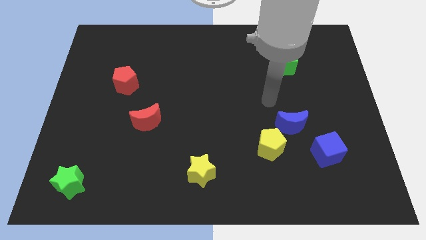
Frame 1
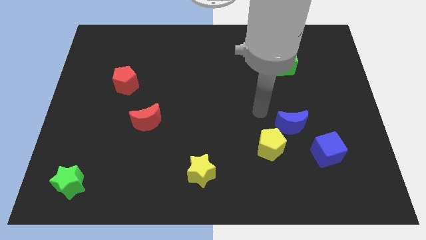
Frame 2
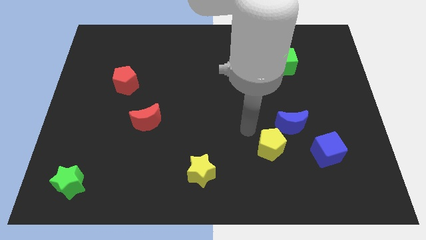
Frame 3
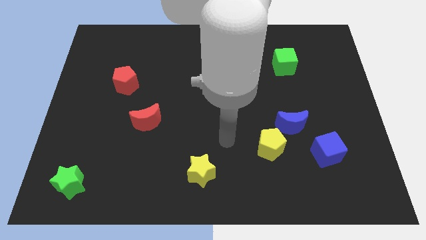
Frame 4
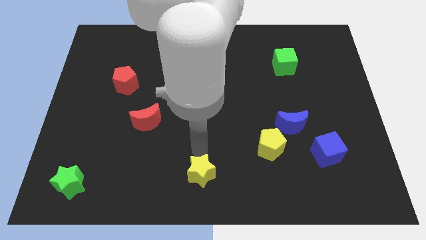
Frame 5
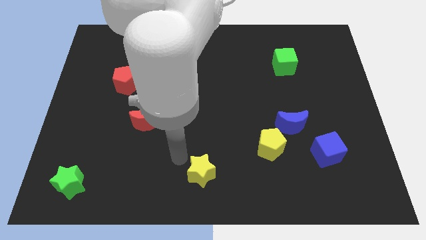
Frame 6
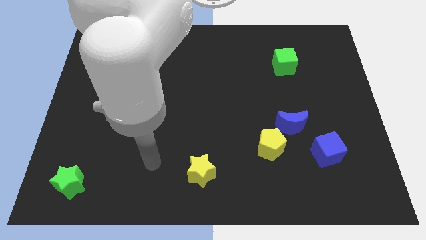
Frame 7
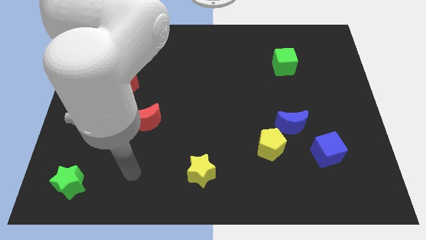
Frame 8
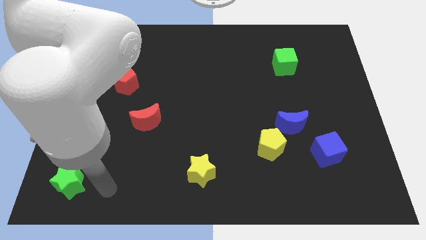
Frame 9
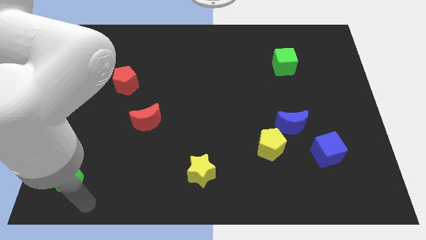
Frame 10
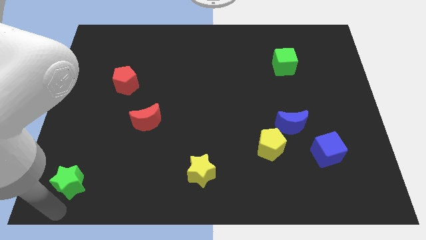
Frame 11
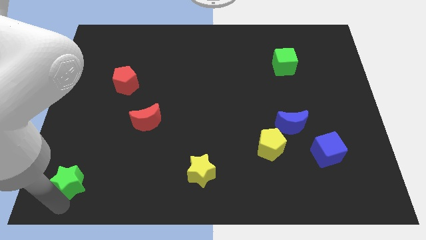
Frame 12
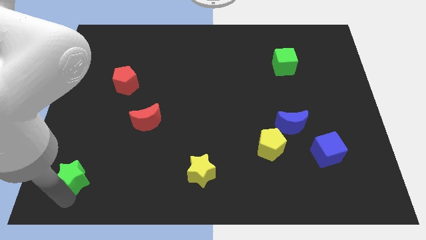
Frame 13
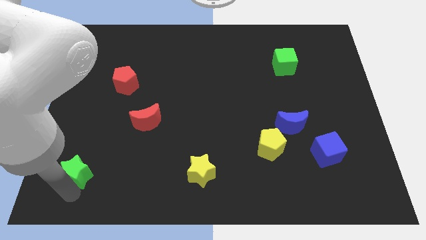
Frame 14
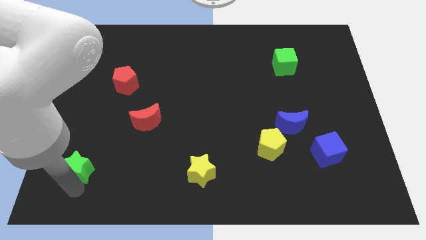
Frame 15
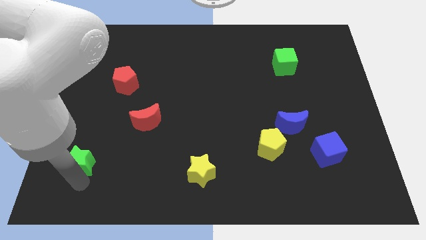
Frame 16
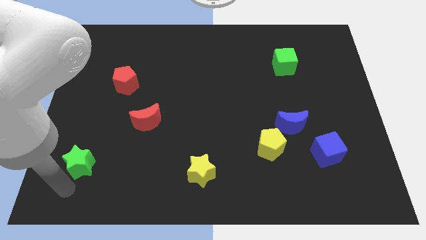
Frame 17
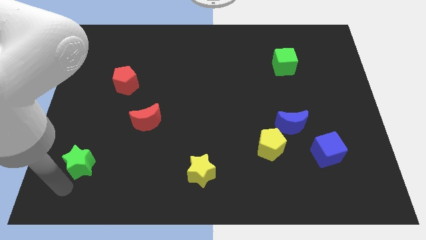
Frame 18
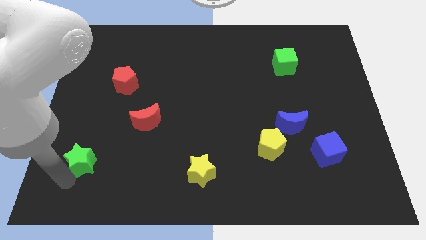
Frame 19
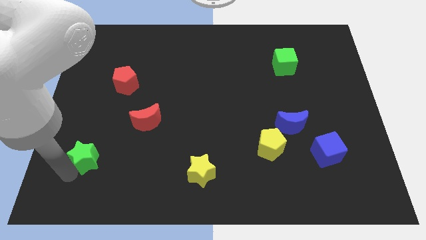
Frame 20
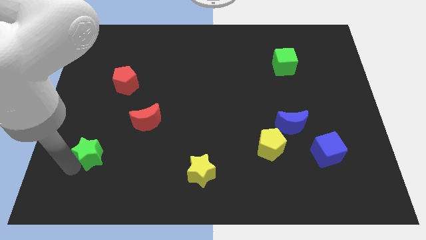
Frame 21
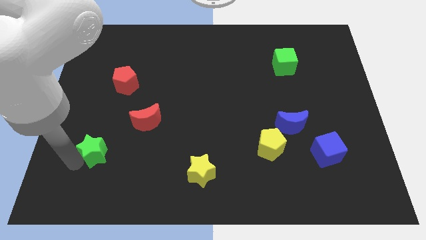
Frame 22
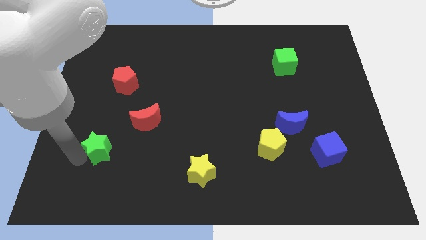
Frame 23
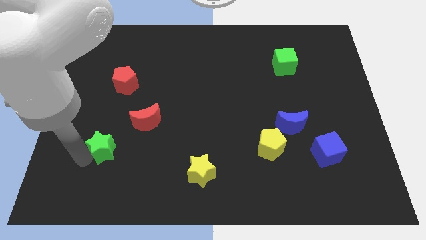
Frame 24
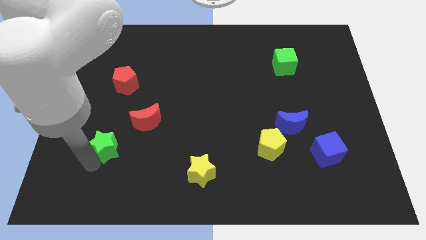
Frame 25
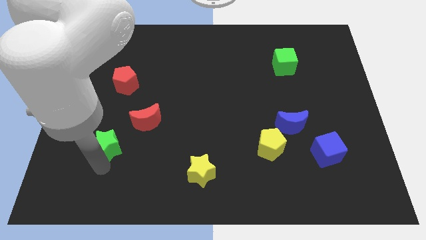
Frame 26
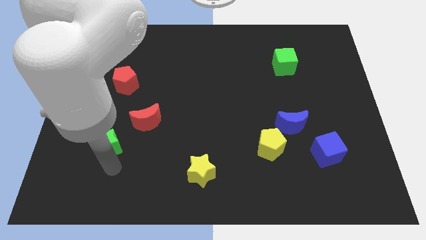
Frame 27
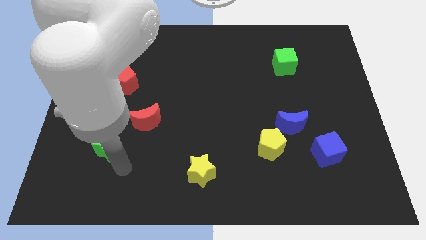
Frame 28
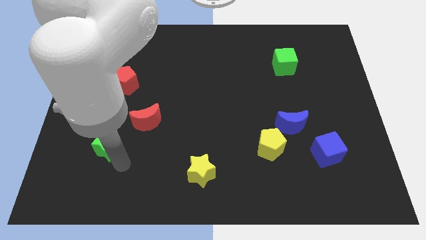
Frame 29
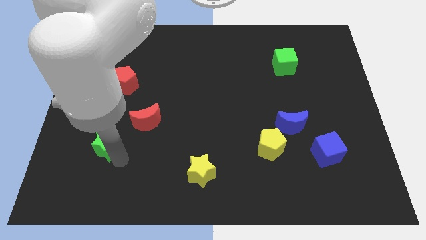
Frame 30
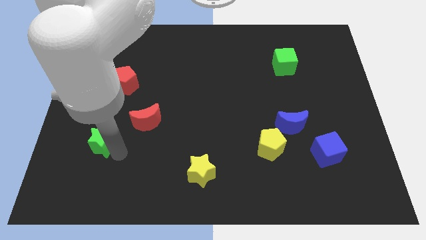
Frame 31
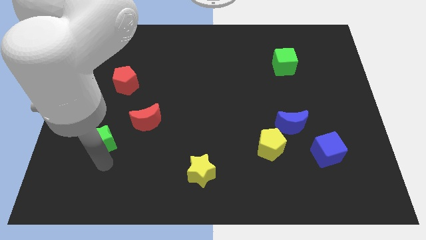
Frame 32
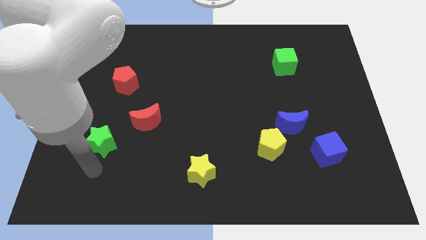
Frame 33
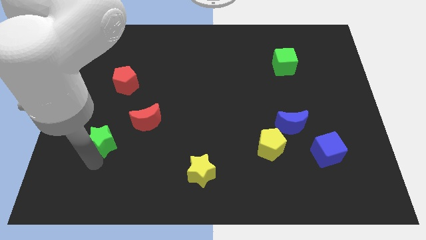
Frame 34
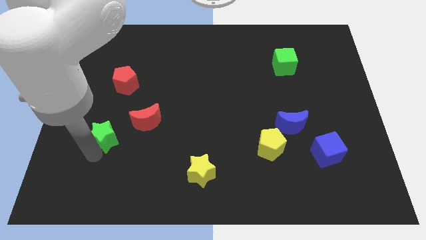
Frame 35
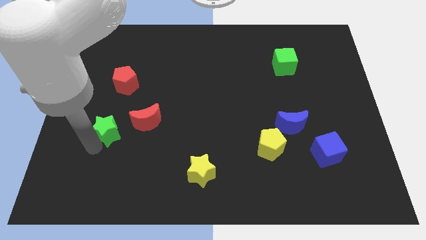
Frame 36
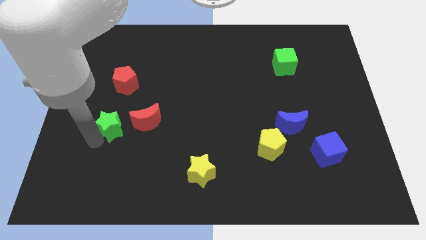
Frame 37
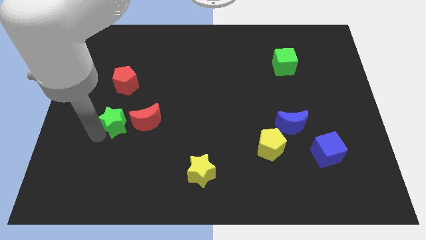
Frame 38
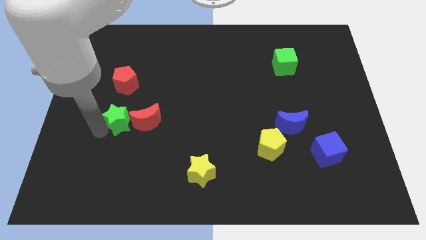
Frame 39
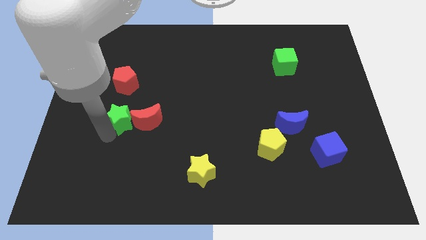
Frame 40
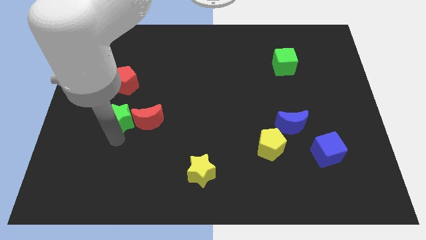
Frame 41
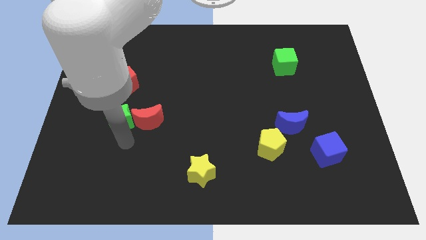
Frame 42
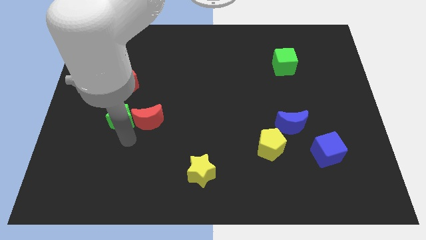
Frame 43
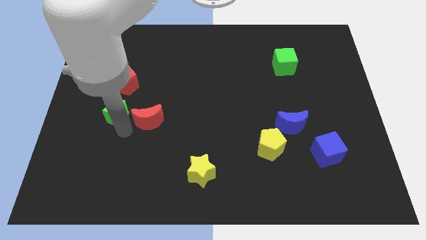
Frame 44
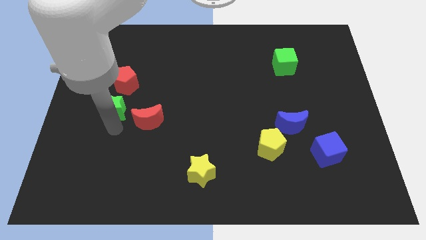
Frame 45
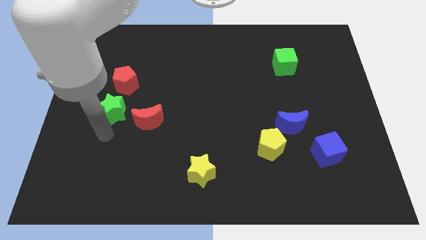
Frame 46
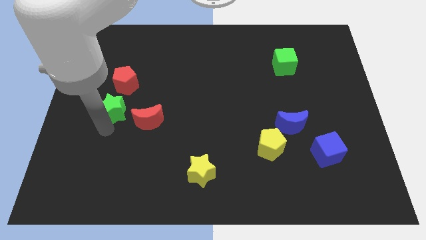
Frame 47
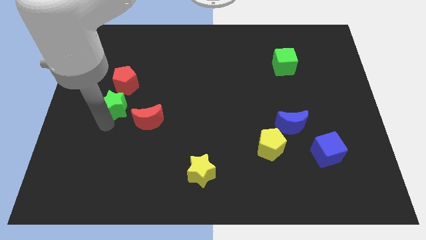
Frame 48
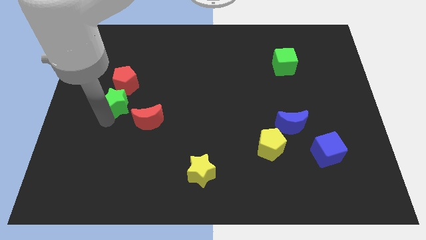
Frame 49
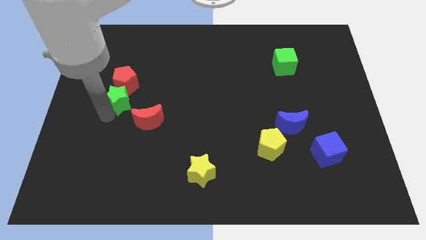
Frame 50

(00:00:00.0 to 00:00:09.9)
slide the green star close to the red pentagon
